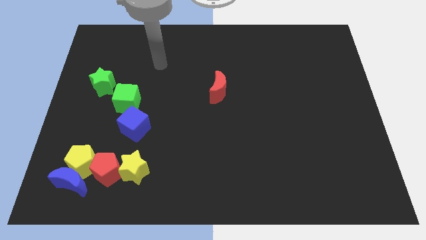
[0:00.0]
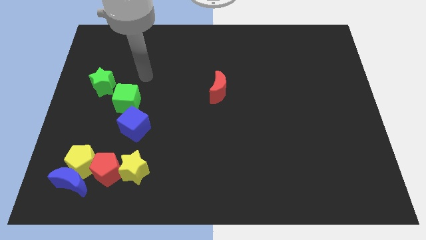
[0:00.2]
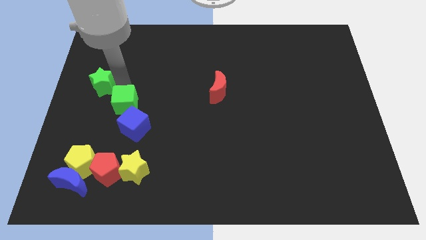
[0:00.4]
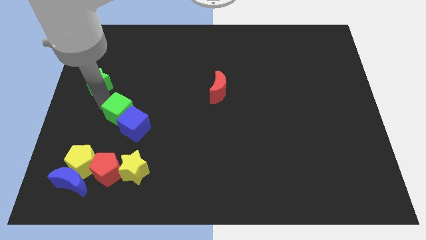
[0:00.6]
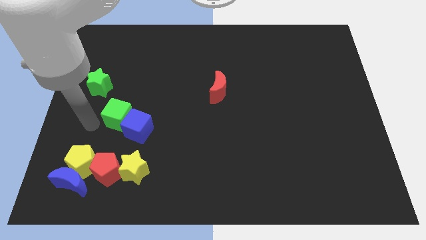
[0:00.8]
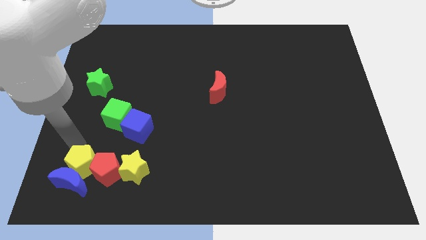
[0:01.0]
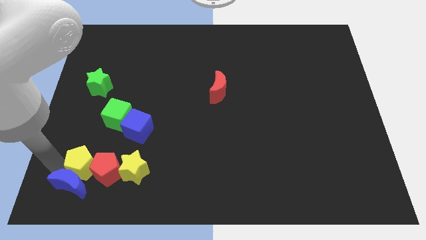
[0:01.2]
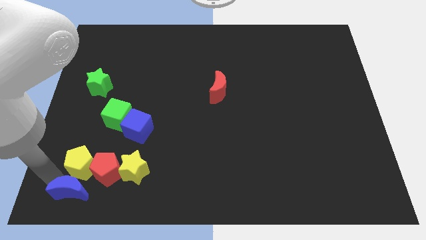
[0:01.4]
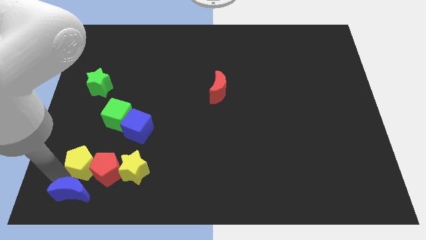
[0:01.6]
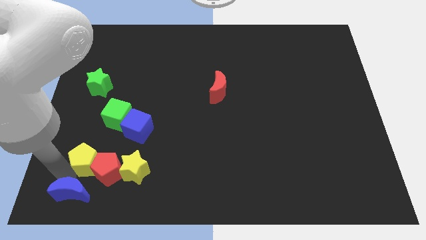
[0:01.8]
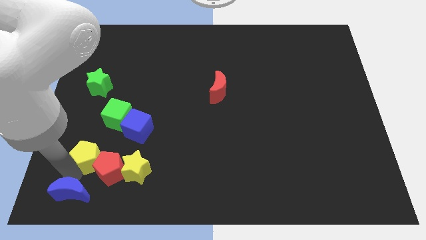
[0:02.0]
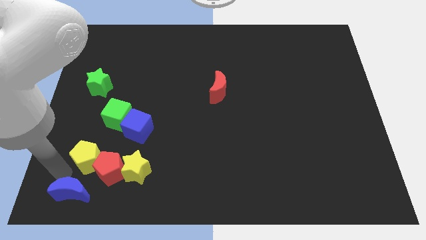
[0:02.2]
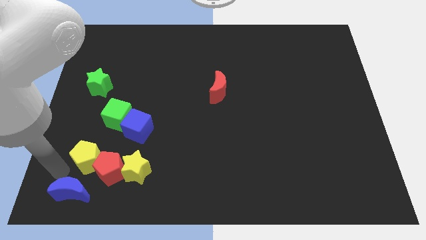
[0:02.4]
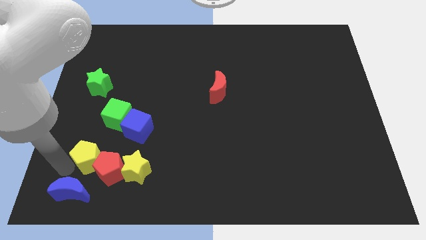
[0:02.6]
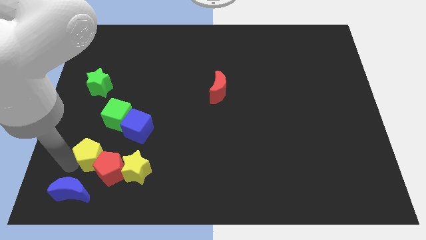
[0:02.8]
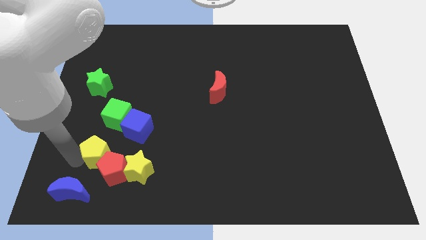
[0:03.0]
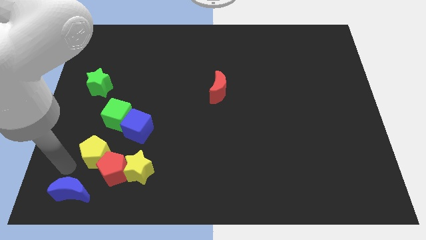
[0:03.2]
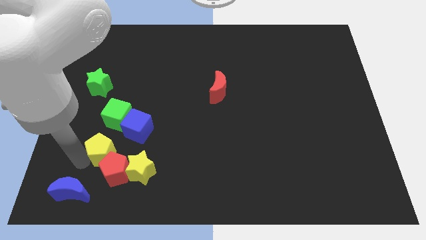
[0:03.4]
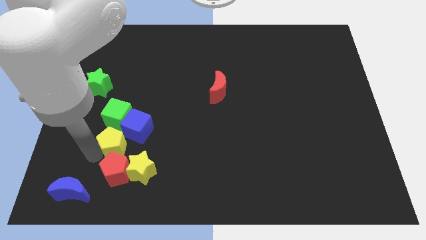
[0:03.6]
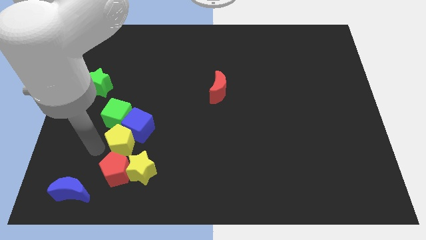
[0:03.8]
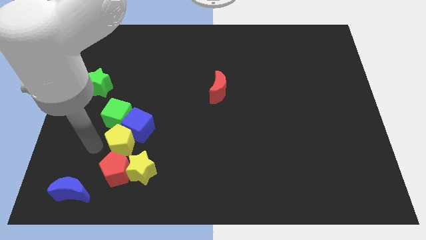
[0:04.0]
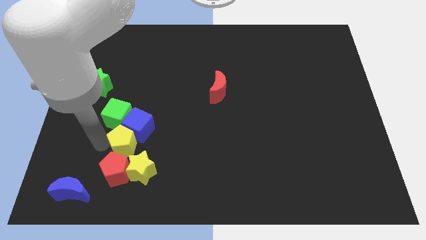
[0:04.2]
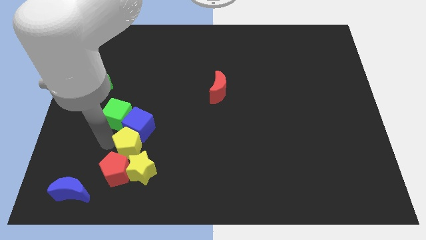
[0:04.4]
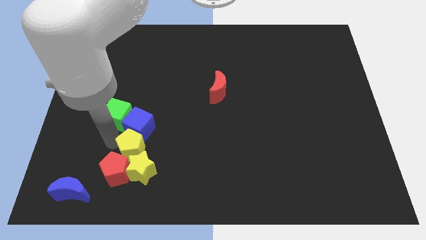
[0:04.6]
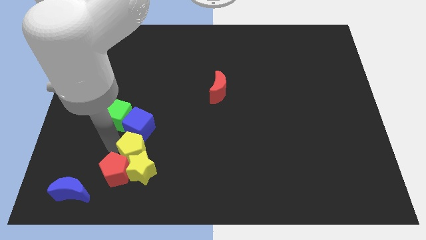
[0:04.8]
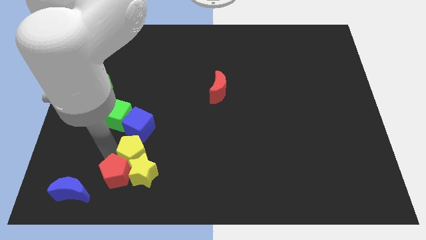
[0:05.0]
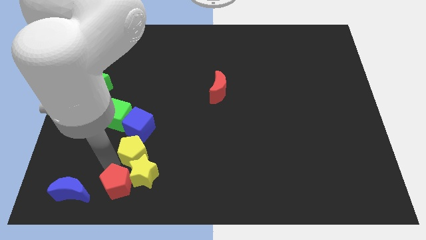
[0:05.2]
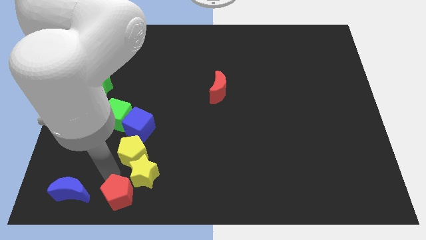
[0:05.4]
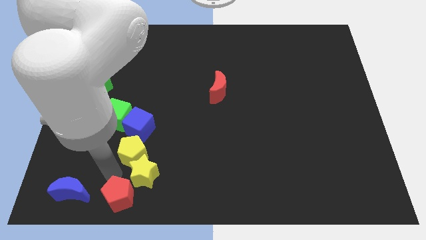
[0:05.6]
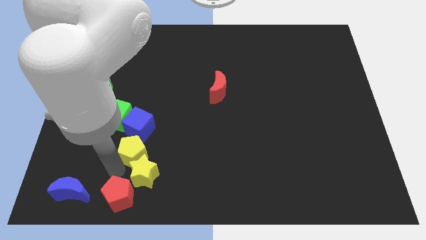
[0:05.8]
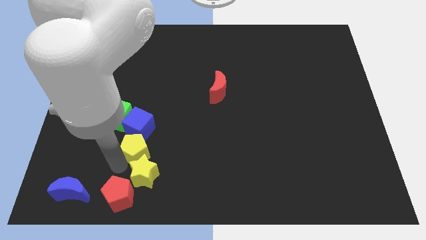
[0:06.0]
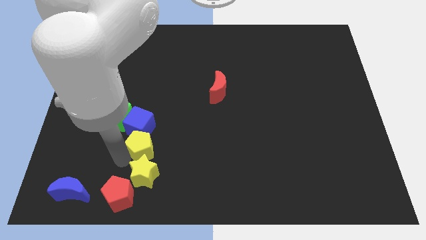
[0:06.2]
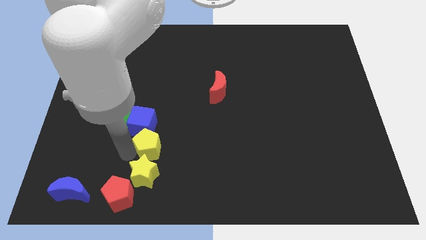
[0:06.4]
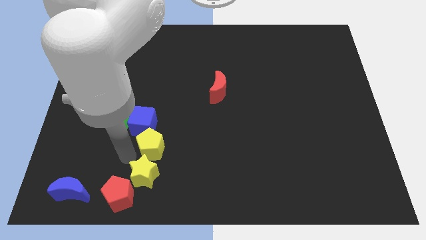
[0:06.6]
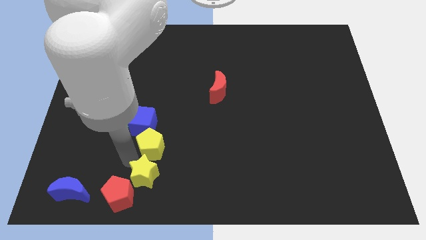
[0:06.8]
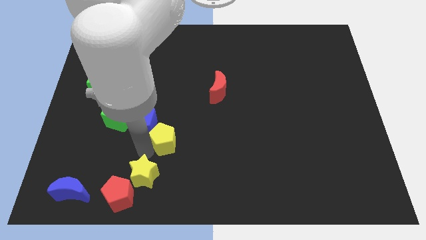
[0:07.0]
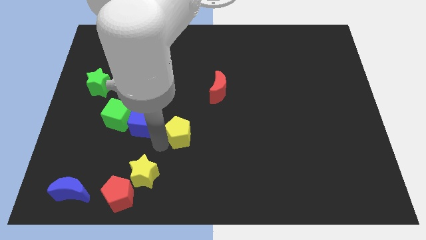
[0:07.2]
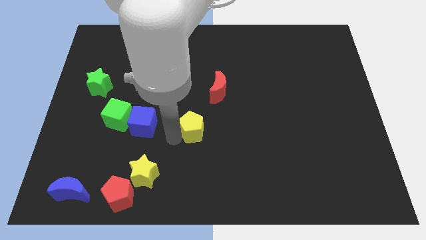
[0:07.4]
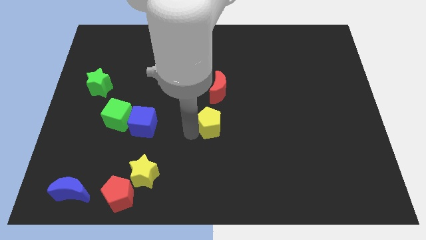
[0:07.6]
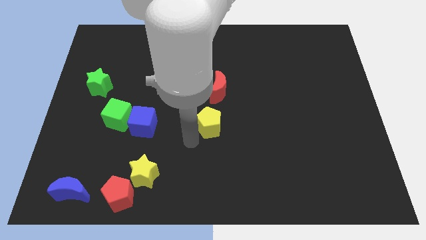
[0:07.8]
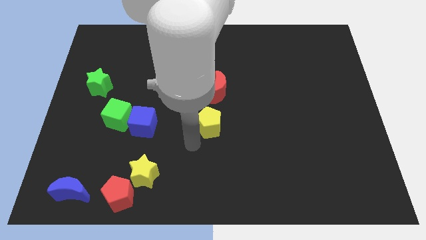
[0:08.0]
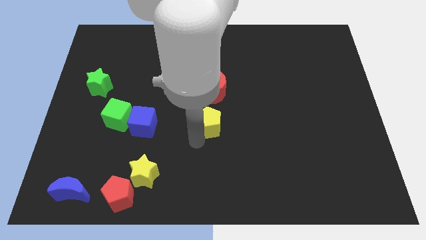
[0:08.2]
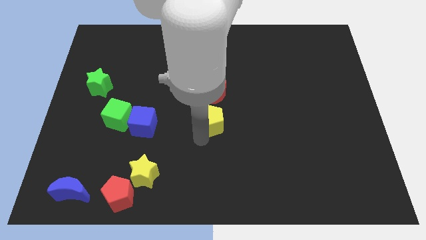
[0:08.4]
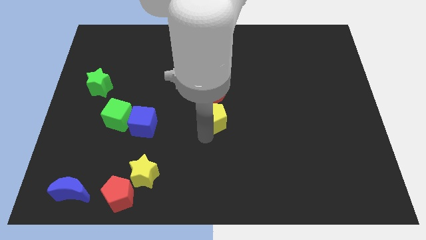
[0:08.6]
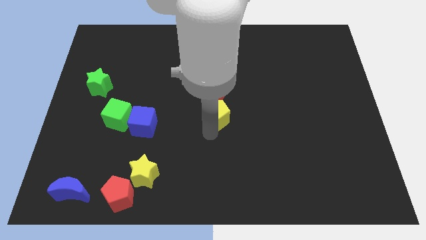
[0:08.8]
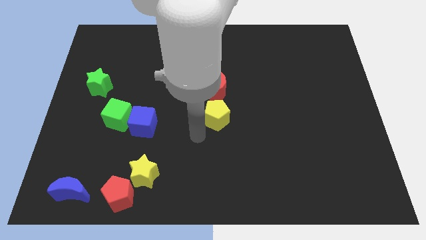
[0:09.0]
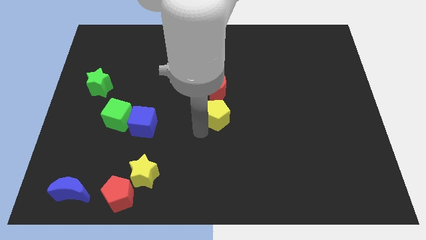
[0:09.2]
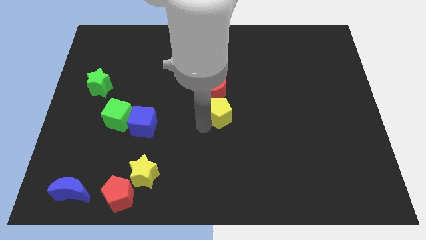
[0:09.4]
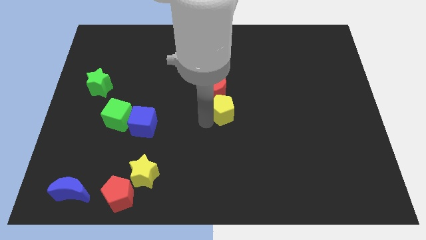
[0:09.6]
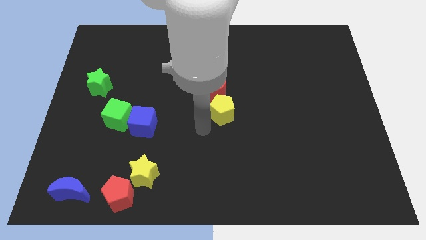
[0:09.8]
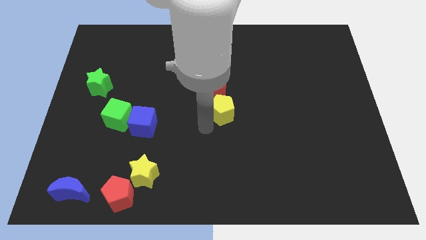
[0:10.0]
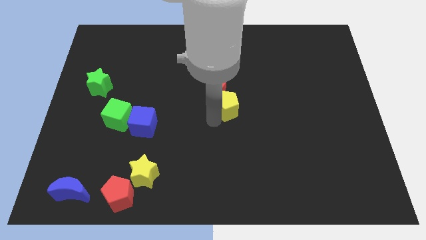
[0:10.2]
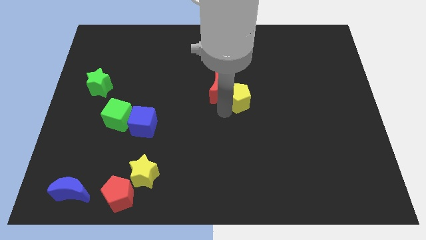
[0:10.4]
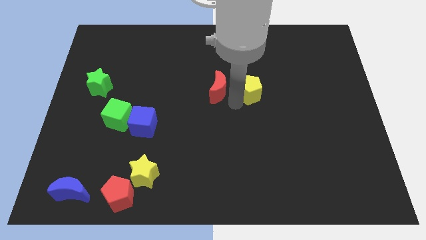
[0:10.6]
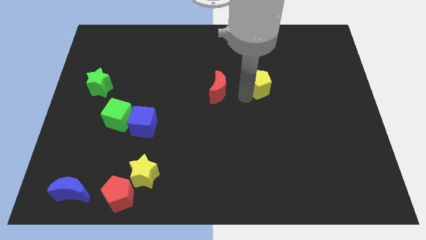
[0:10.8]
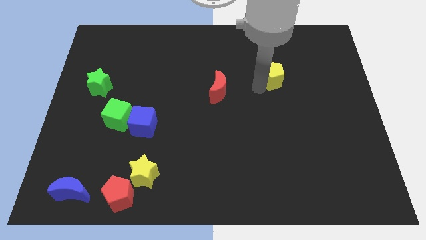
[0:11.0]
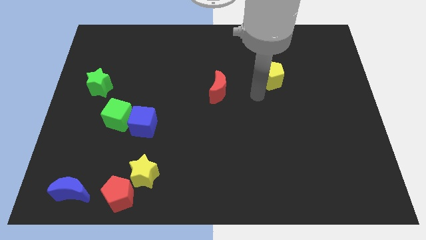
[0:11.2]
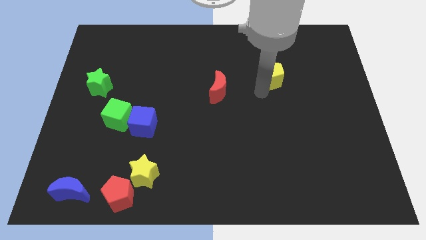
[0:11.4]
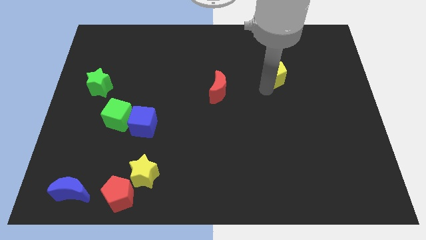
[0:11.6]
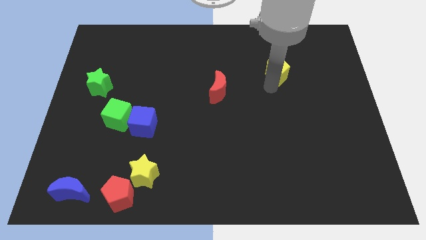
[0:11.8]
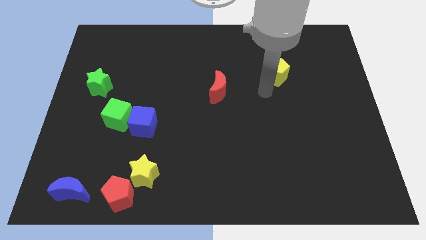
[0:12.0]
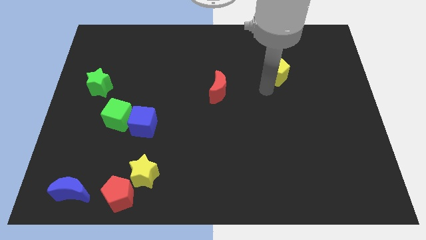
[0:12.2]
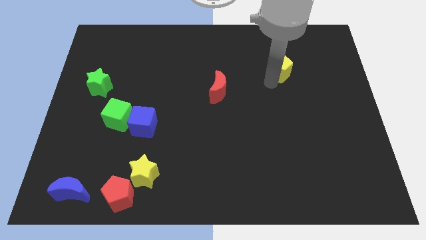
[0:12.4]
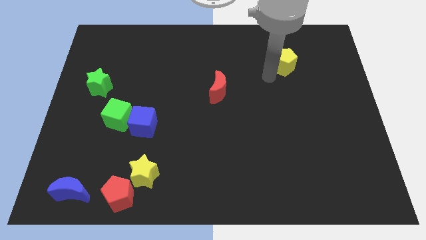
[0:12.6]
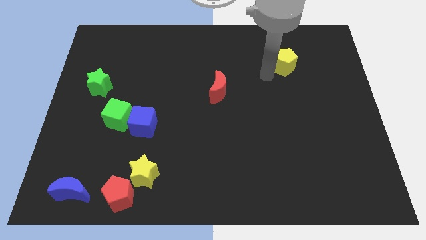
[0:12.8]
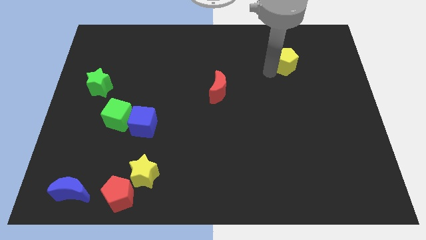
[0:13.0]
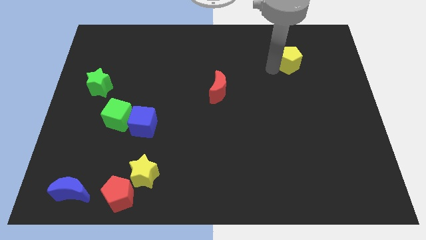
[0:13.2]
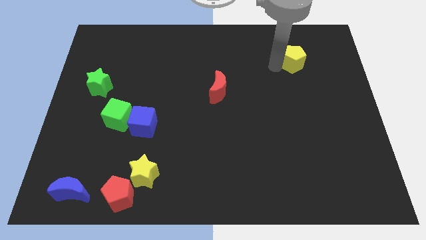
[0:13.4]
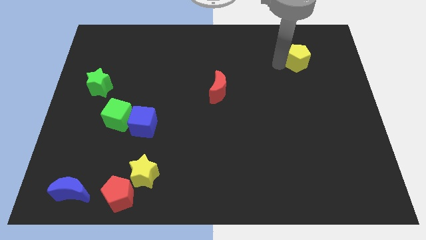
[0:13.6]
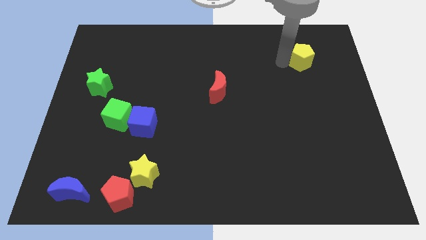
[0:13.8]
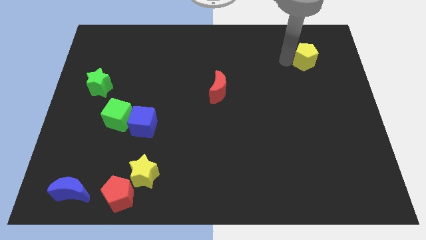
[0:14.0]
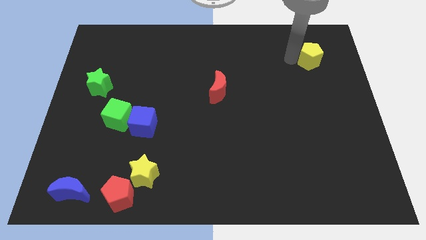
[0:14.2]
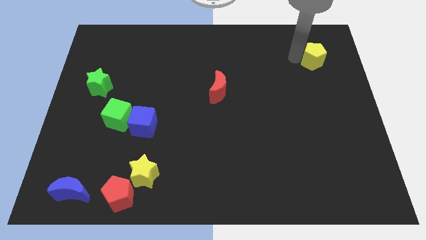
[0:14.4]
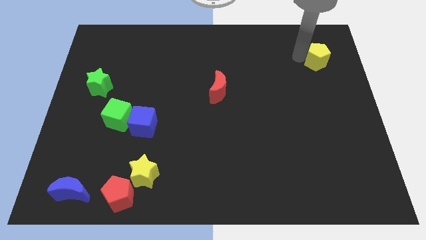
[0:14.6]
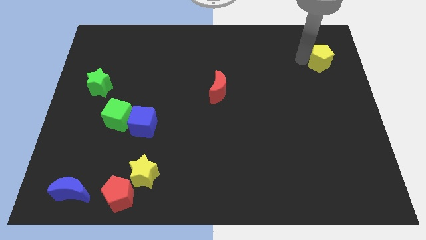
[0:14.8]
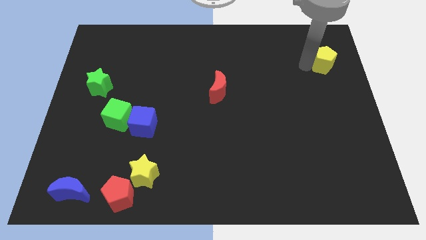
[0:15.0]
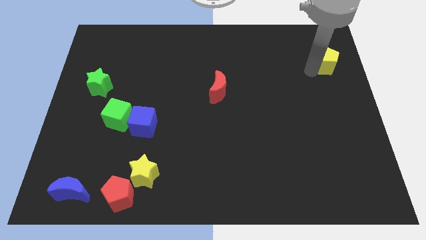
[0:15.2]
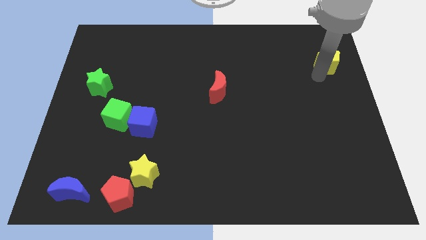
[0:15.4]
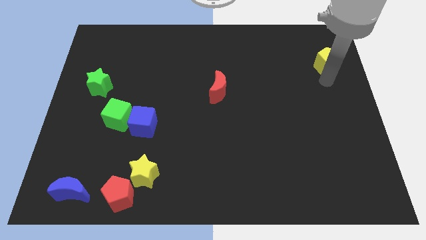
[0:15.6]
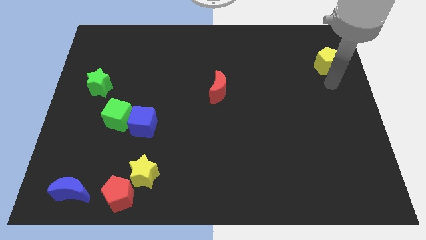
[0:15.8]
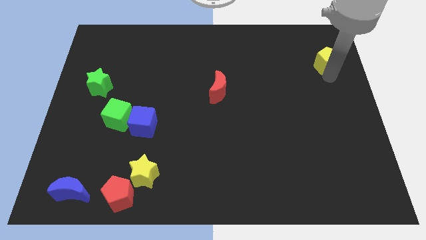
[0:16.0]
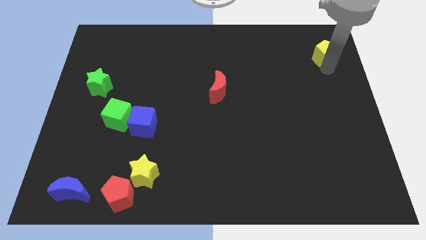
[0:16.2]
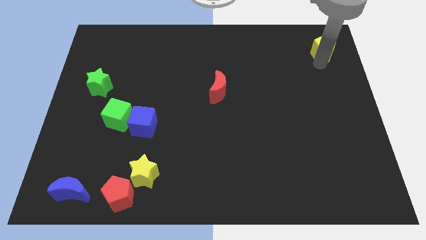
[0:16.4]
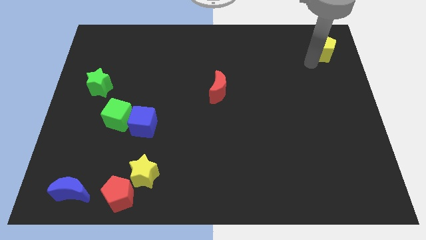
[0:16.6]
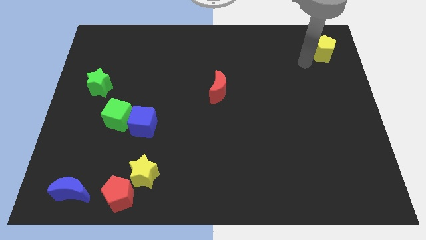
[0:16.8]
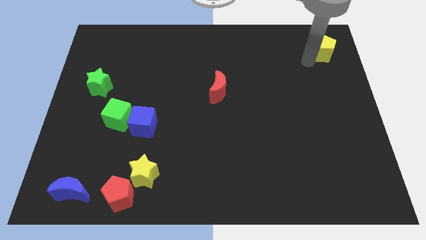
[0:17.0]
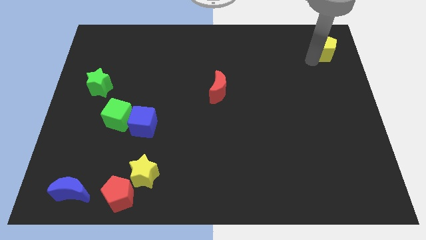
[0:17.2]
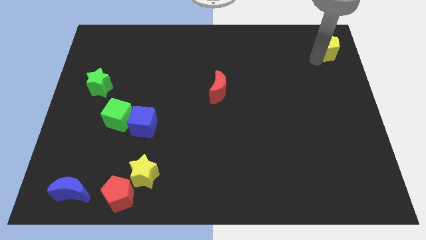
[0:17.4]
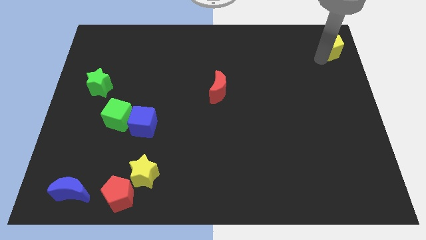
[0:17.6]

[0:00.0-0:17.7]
move the yellow pentagon to the top right of the board
